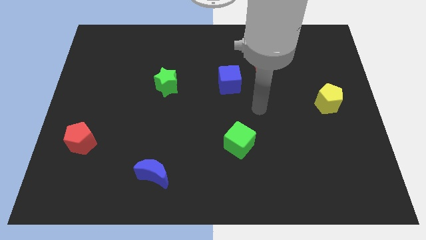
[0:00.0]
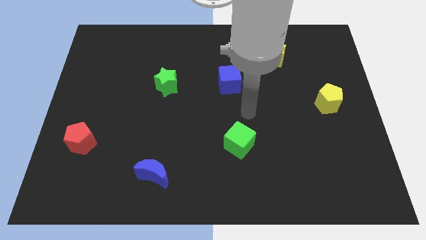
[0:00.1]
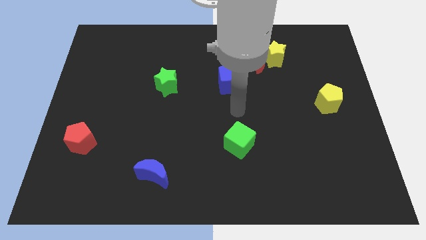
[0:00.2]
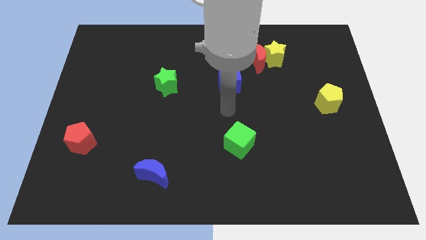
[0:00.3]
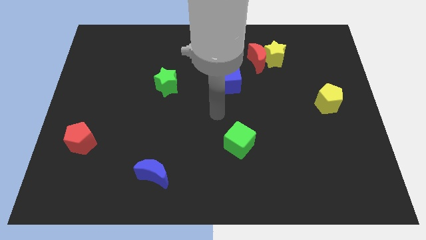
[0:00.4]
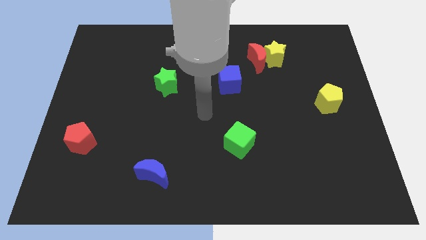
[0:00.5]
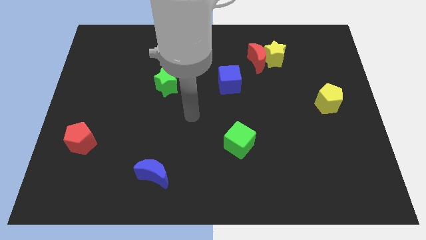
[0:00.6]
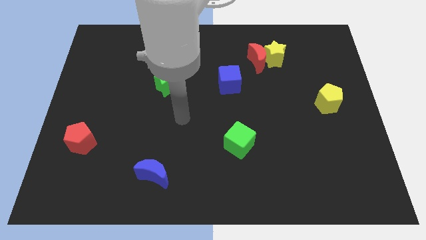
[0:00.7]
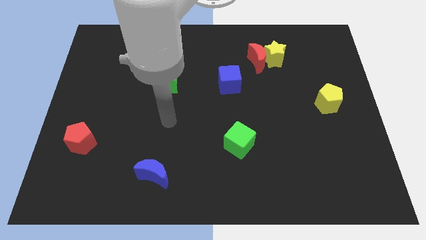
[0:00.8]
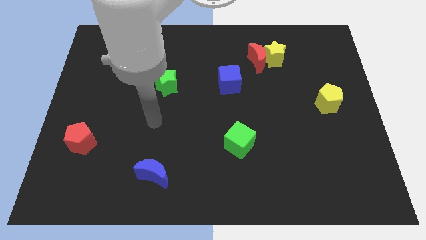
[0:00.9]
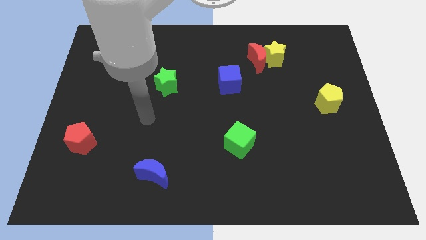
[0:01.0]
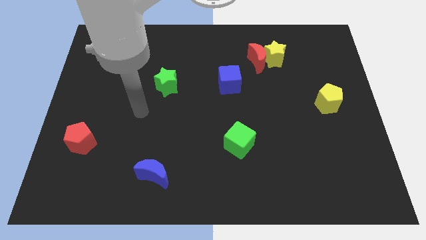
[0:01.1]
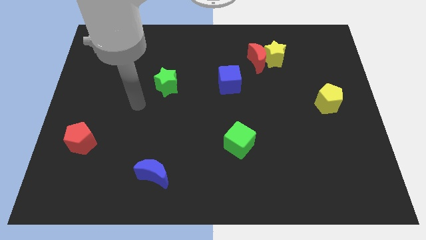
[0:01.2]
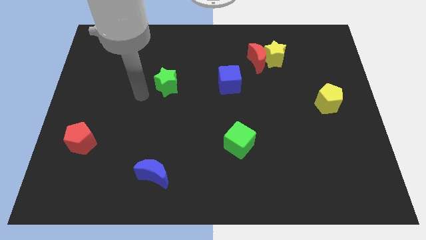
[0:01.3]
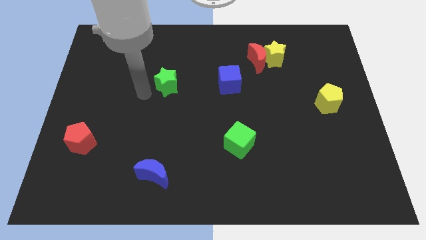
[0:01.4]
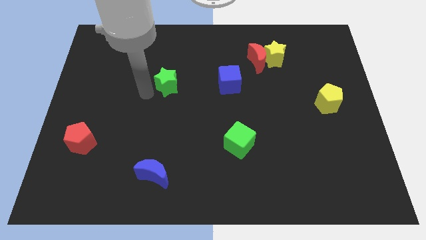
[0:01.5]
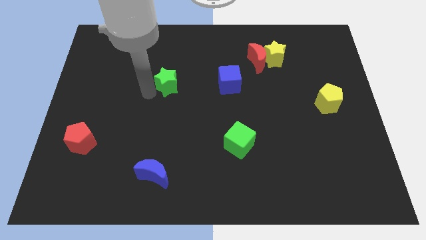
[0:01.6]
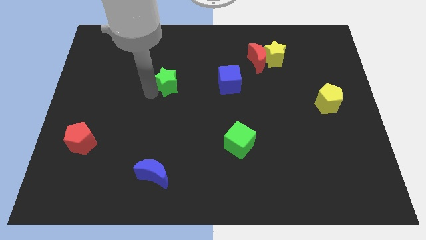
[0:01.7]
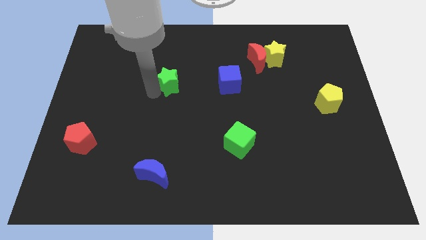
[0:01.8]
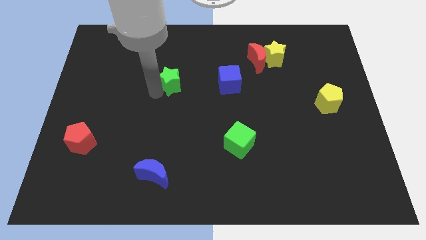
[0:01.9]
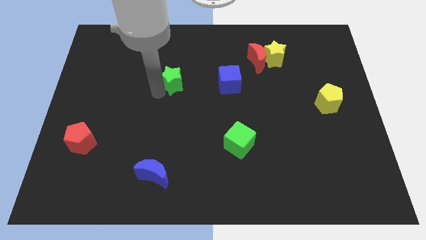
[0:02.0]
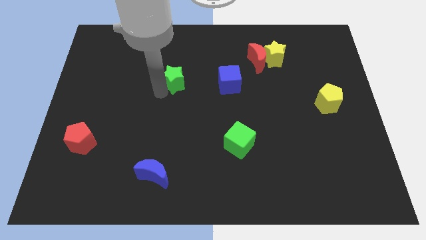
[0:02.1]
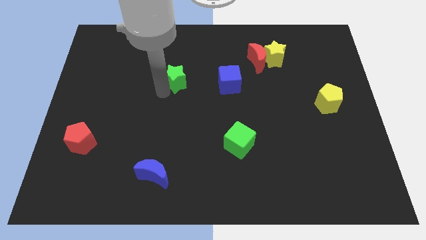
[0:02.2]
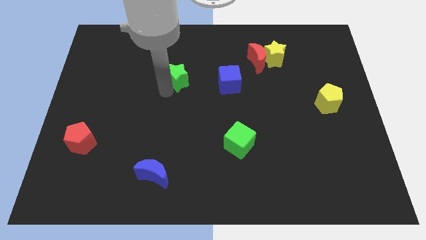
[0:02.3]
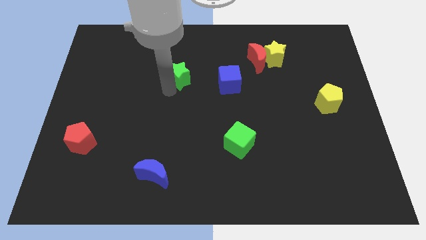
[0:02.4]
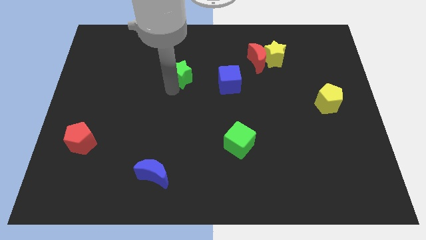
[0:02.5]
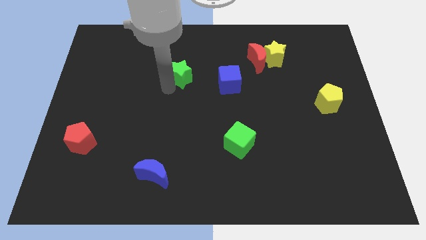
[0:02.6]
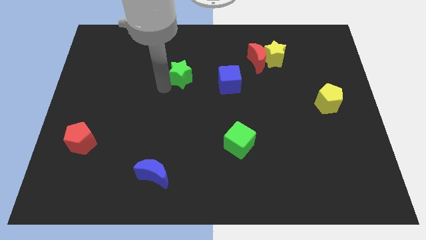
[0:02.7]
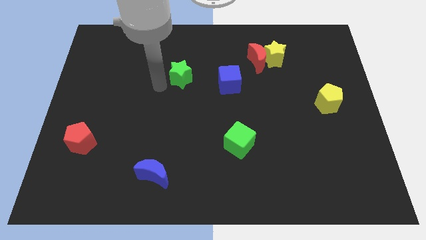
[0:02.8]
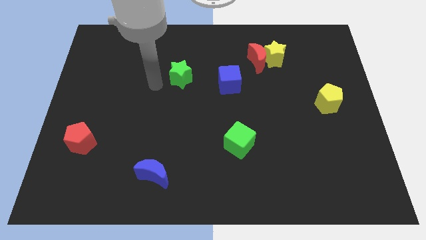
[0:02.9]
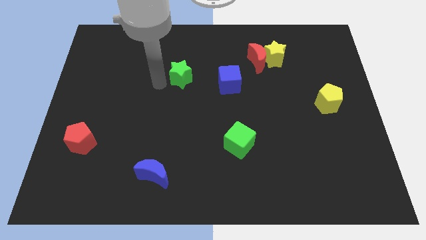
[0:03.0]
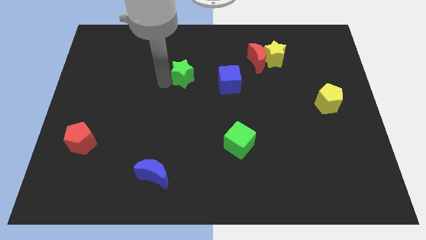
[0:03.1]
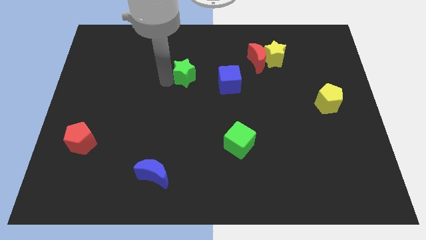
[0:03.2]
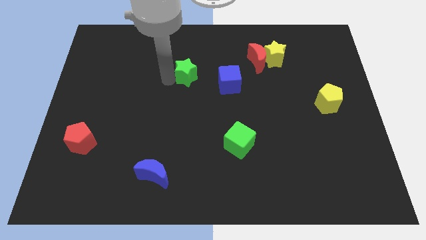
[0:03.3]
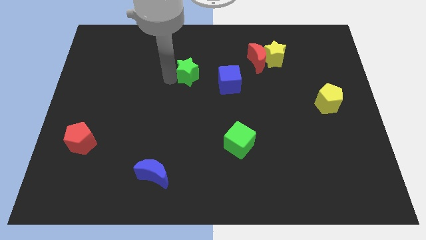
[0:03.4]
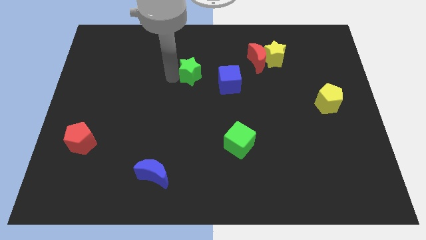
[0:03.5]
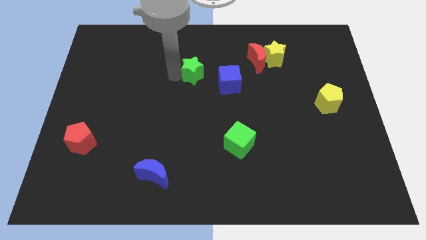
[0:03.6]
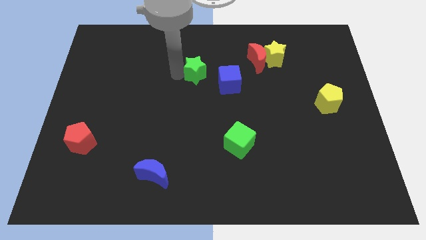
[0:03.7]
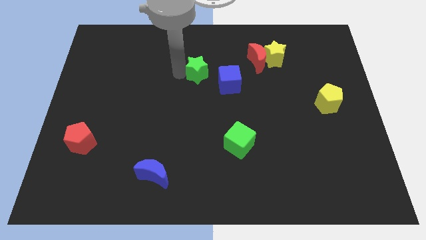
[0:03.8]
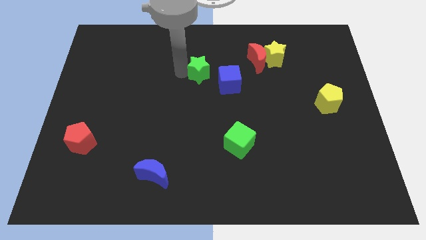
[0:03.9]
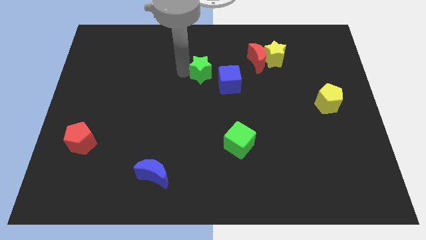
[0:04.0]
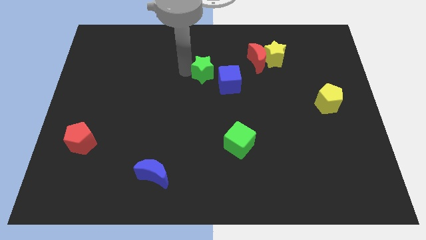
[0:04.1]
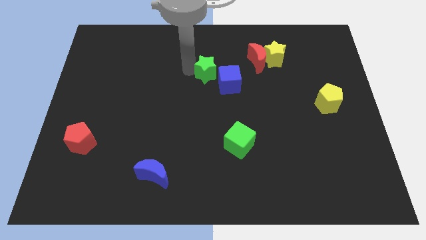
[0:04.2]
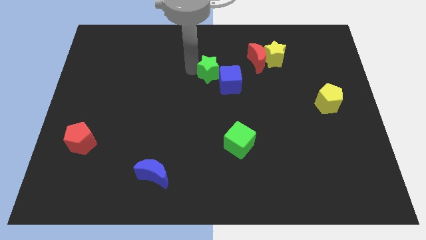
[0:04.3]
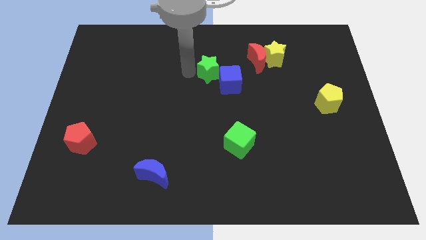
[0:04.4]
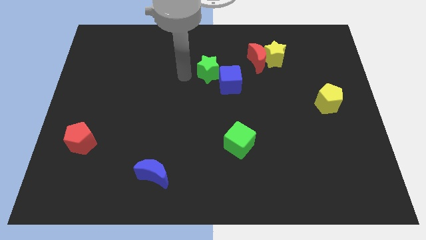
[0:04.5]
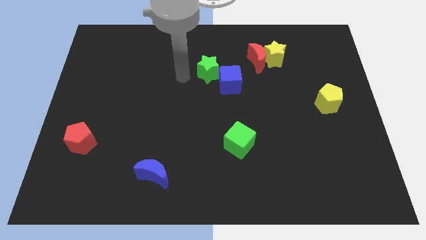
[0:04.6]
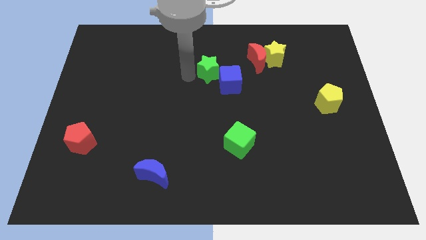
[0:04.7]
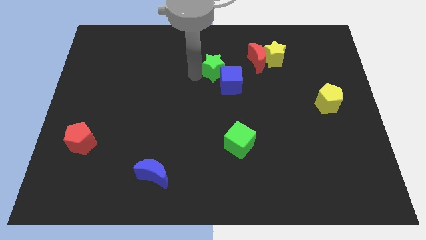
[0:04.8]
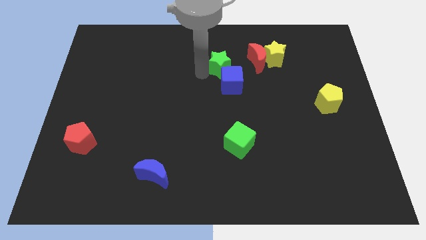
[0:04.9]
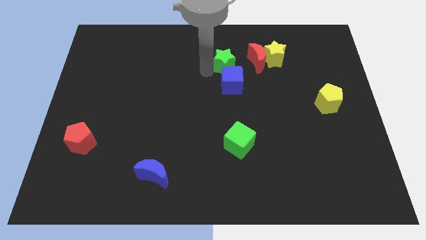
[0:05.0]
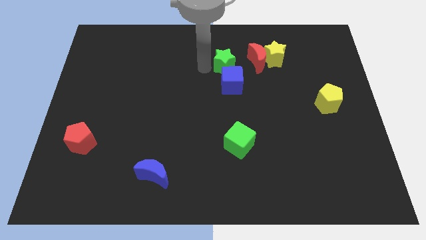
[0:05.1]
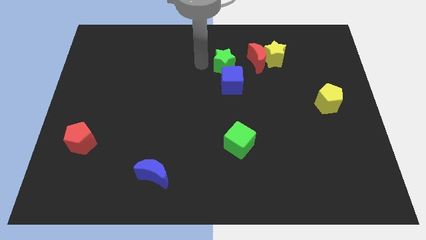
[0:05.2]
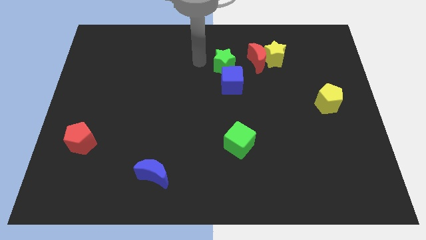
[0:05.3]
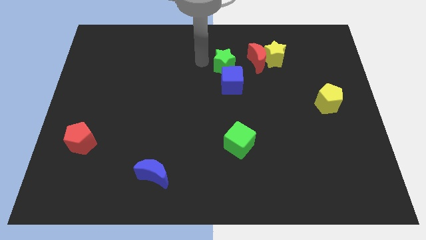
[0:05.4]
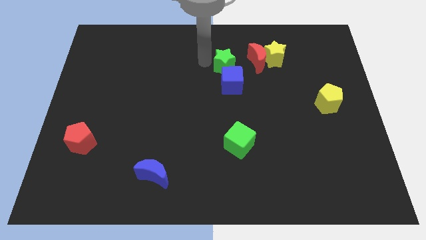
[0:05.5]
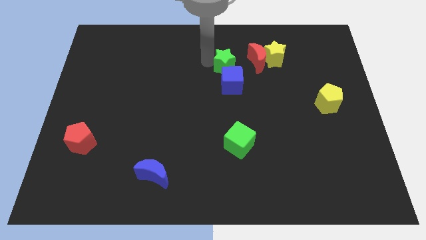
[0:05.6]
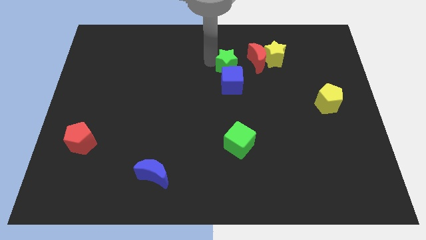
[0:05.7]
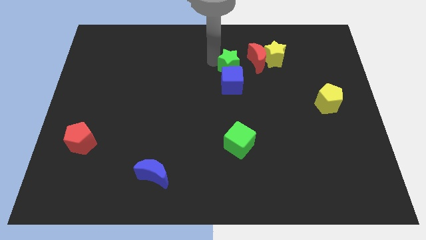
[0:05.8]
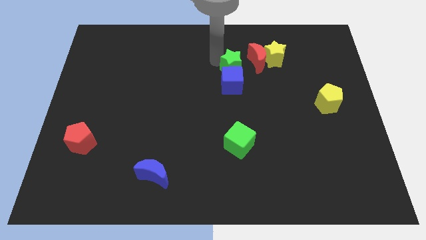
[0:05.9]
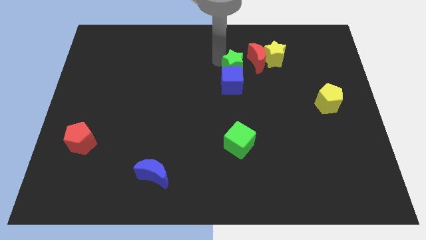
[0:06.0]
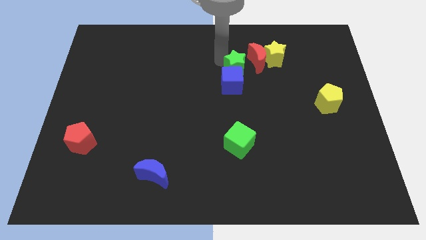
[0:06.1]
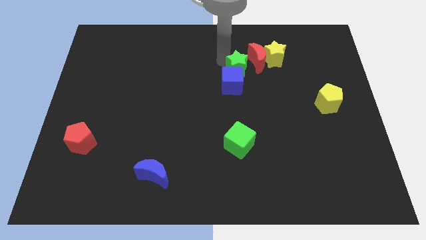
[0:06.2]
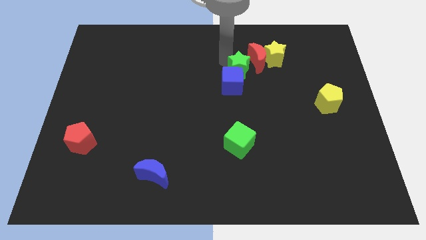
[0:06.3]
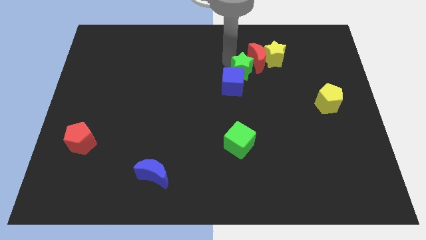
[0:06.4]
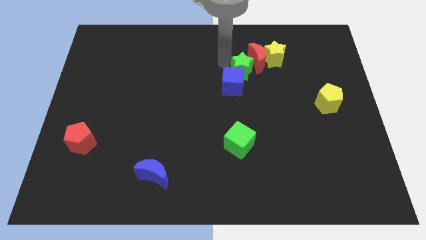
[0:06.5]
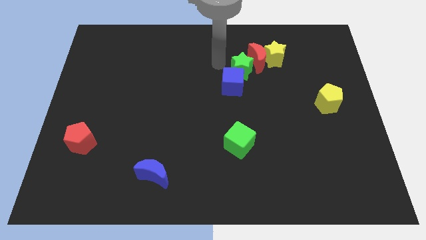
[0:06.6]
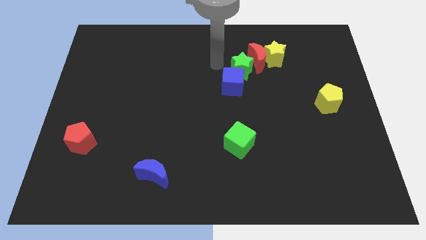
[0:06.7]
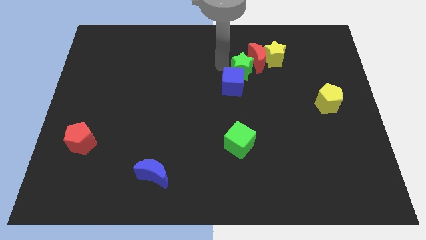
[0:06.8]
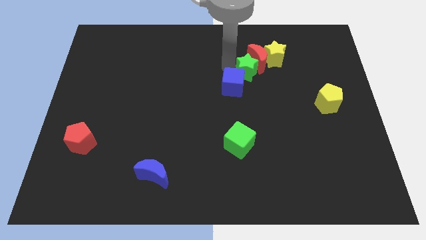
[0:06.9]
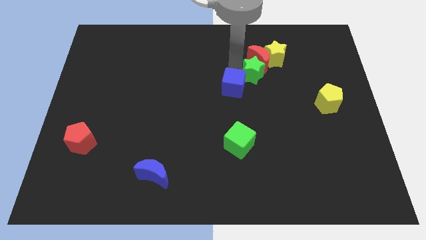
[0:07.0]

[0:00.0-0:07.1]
push the green star right

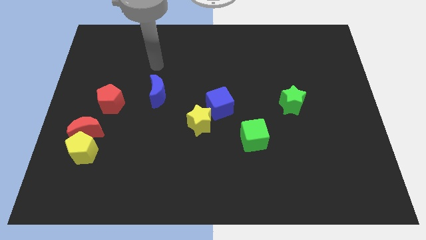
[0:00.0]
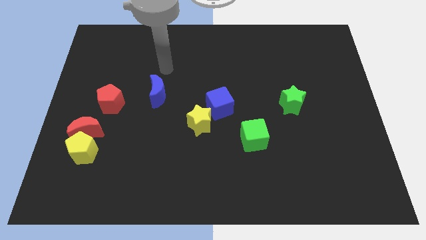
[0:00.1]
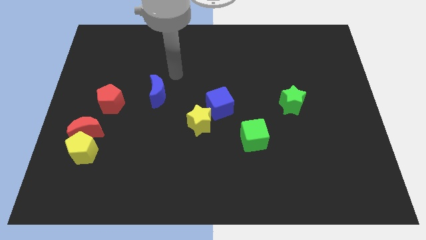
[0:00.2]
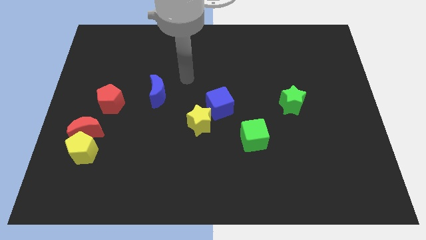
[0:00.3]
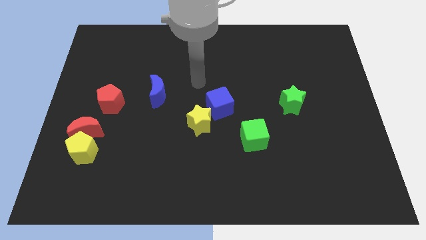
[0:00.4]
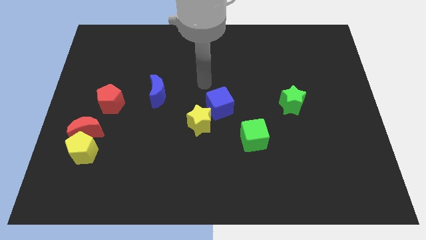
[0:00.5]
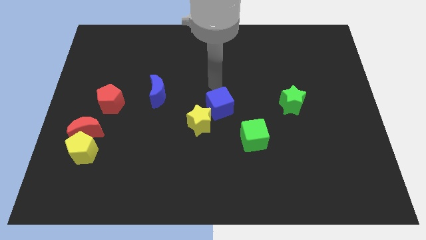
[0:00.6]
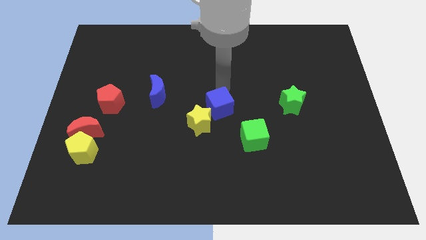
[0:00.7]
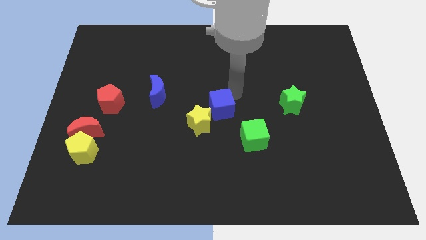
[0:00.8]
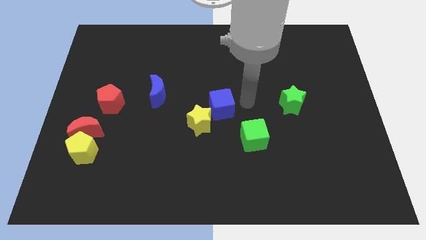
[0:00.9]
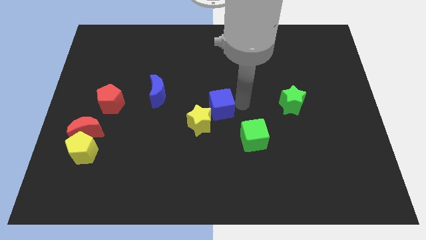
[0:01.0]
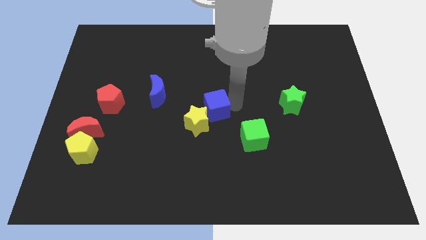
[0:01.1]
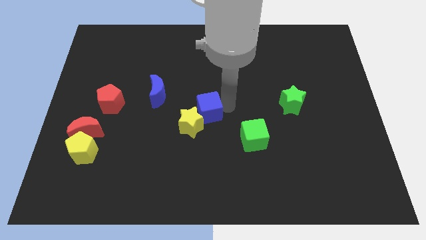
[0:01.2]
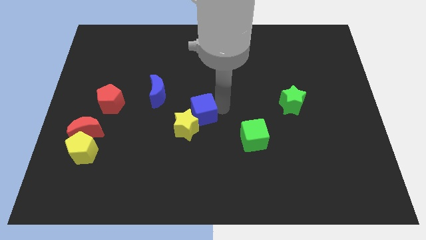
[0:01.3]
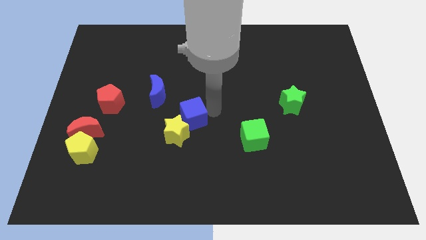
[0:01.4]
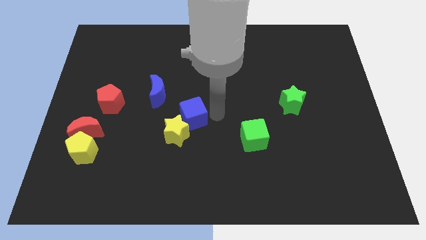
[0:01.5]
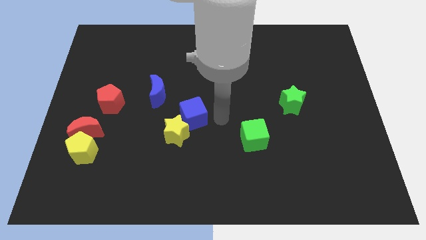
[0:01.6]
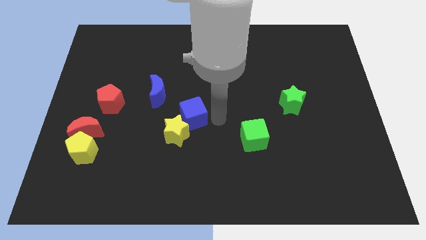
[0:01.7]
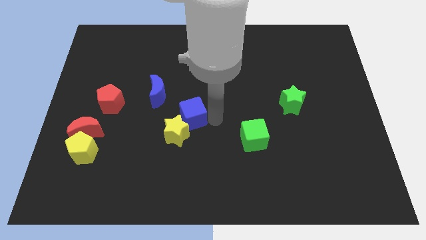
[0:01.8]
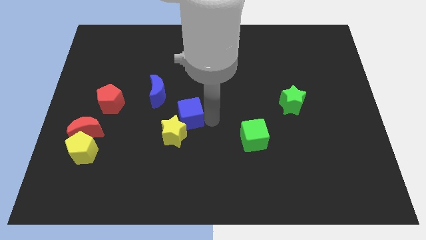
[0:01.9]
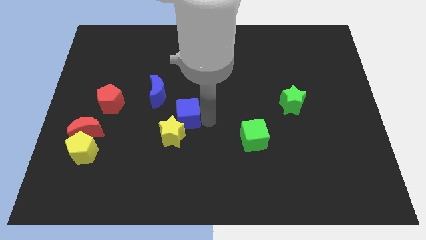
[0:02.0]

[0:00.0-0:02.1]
slide the blue cube to the left a little bit
